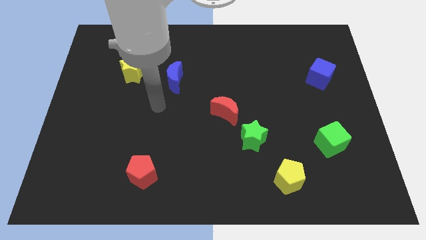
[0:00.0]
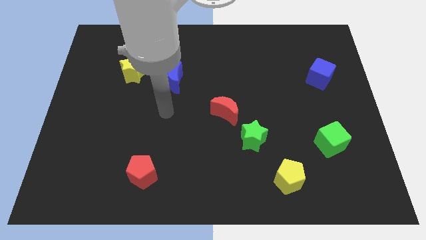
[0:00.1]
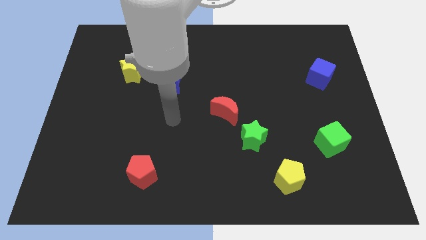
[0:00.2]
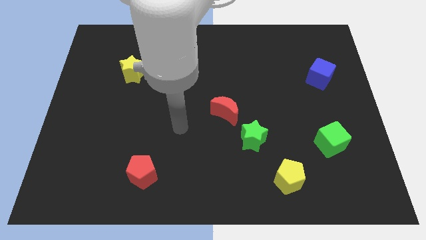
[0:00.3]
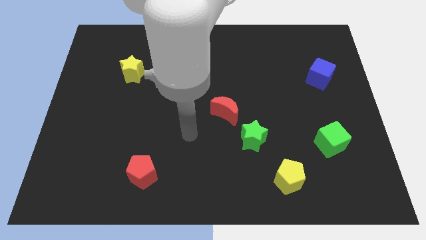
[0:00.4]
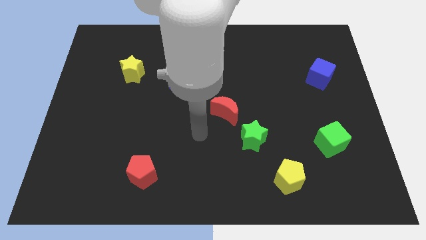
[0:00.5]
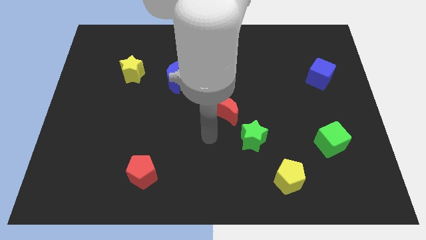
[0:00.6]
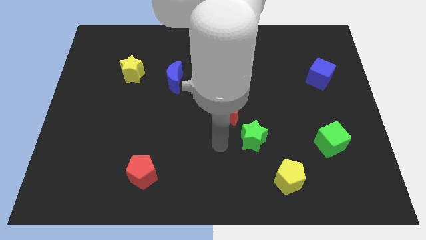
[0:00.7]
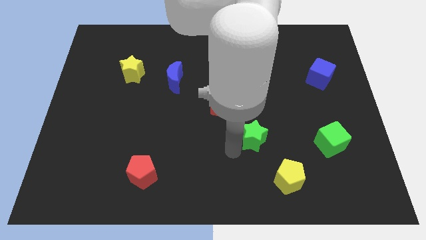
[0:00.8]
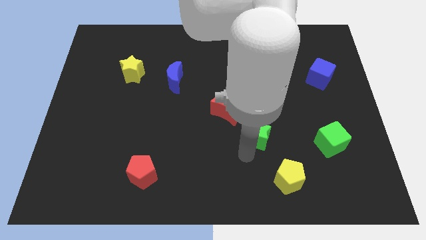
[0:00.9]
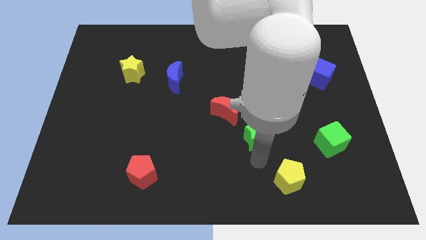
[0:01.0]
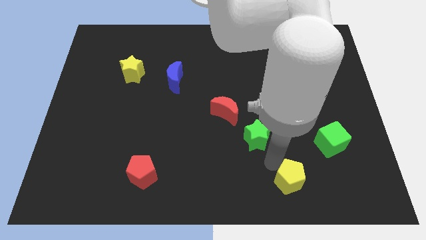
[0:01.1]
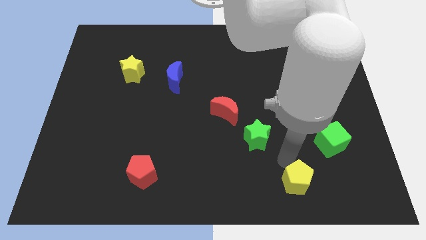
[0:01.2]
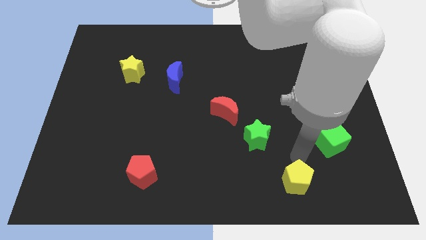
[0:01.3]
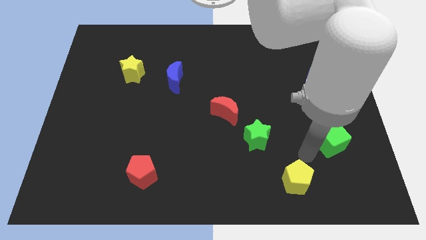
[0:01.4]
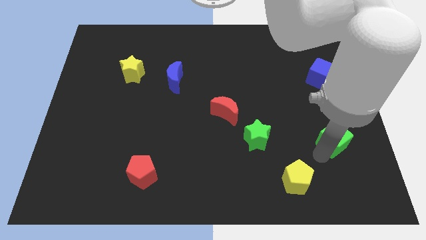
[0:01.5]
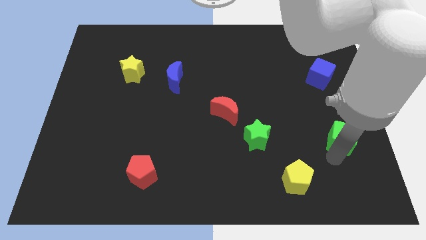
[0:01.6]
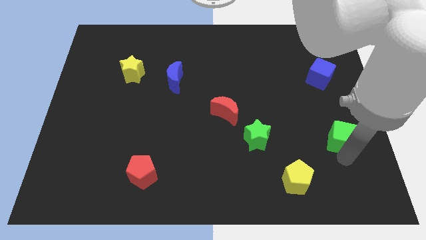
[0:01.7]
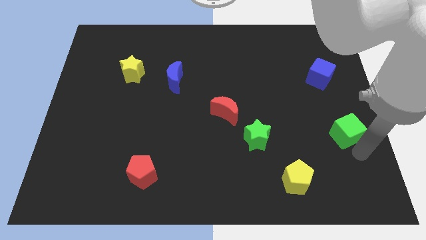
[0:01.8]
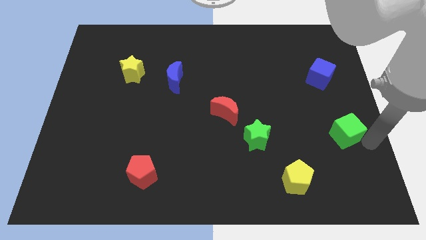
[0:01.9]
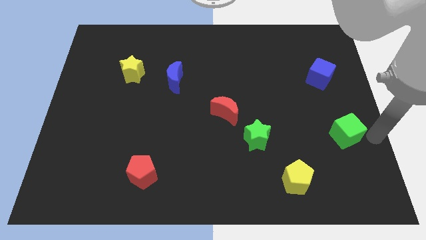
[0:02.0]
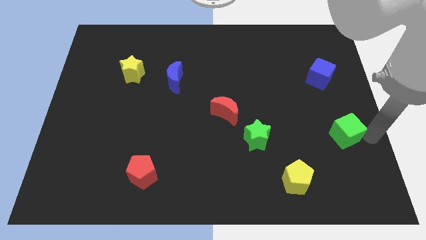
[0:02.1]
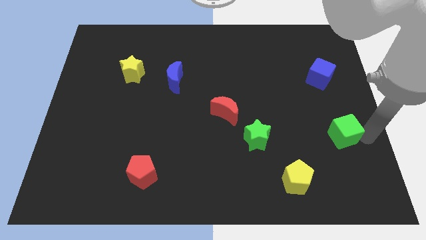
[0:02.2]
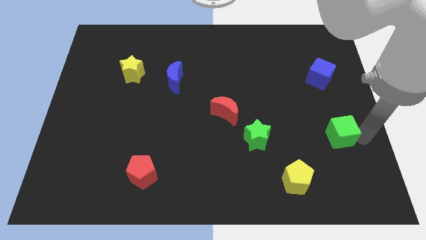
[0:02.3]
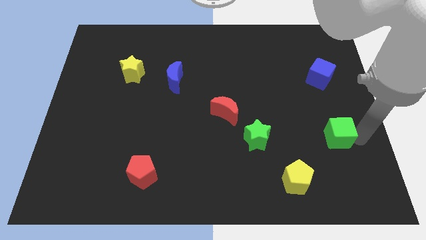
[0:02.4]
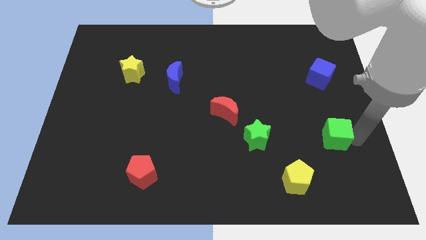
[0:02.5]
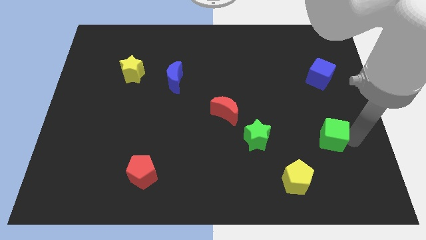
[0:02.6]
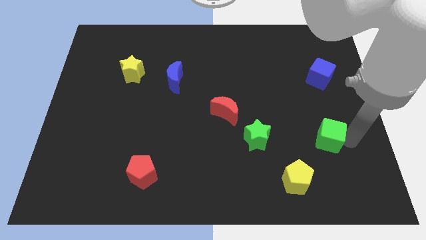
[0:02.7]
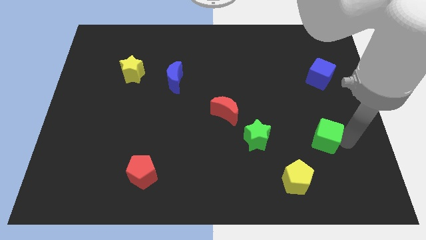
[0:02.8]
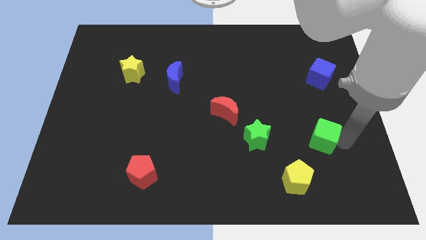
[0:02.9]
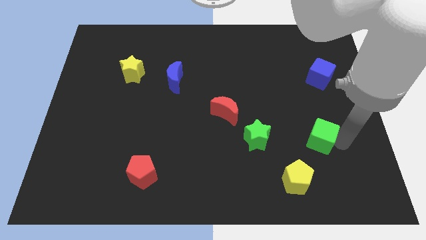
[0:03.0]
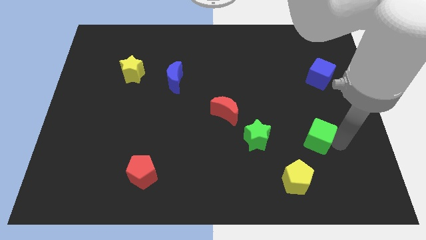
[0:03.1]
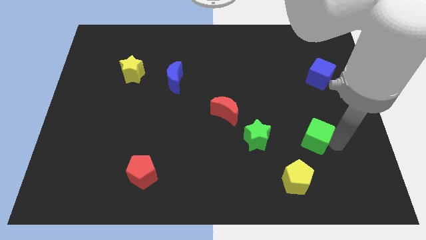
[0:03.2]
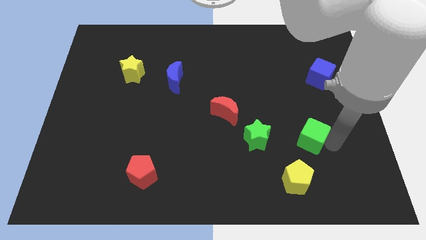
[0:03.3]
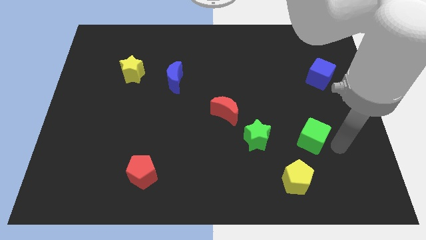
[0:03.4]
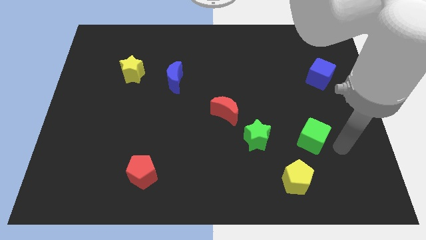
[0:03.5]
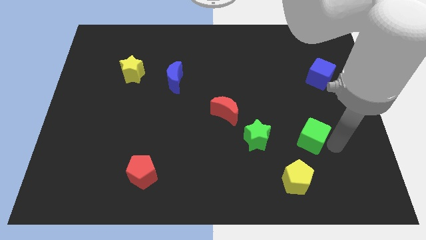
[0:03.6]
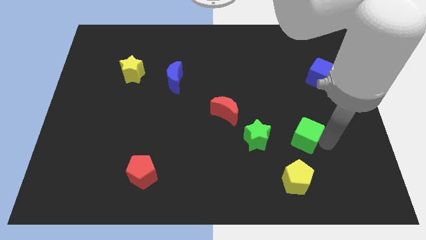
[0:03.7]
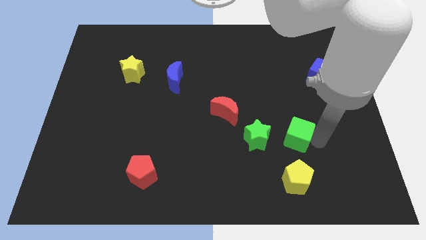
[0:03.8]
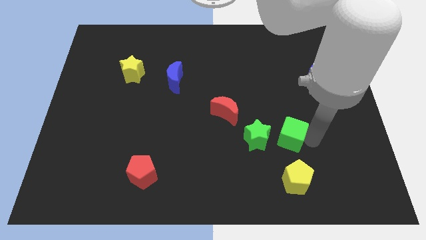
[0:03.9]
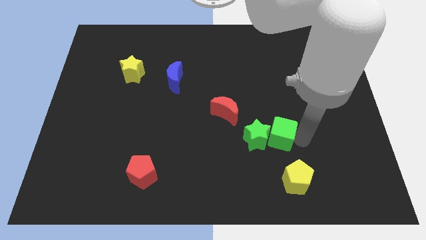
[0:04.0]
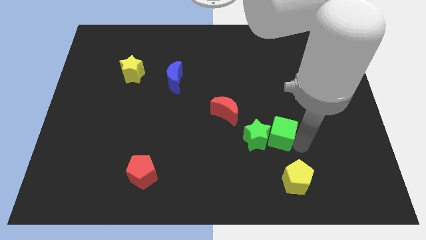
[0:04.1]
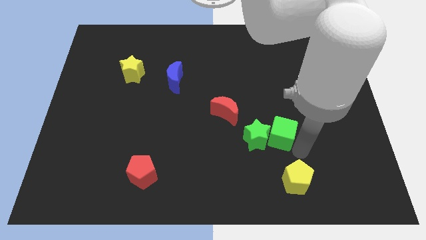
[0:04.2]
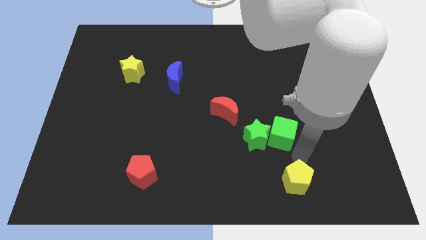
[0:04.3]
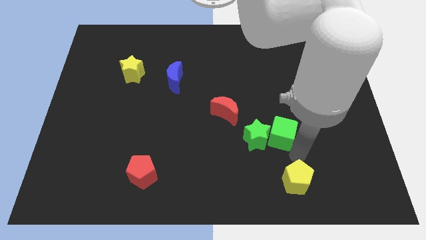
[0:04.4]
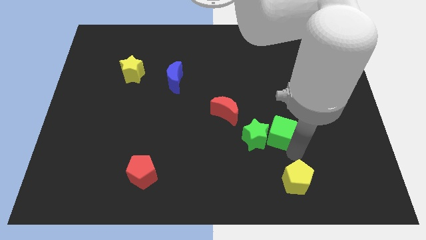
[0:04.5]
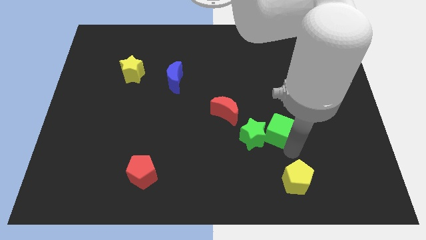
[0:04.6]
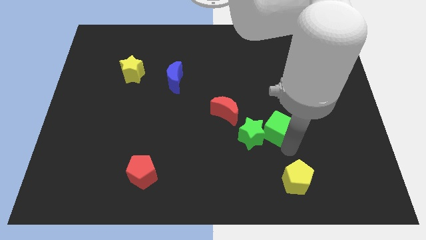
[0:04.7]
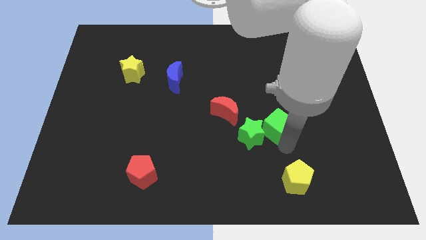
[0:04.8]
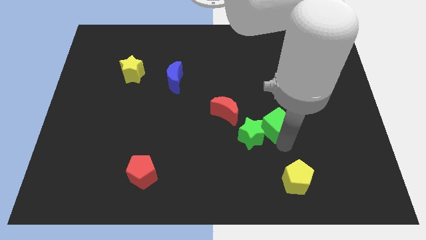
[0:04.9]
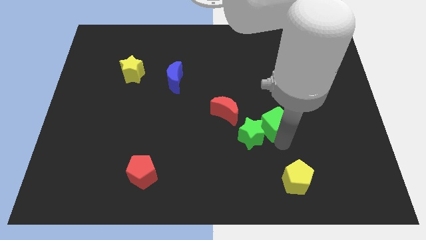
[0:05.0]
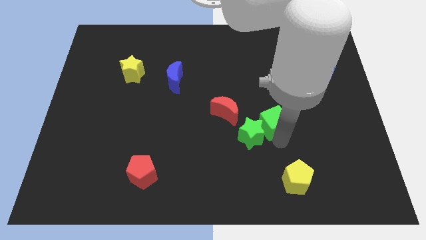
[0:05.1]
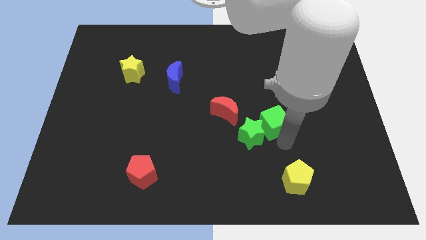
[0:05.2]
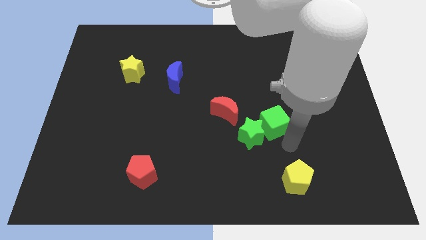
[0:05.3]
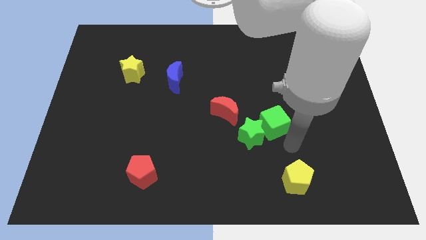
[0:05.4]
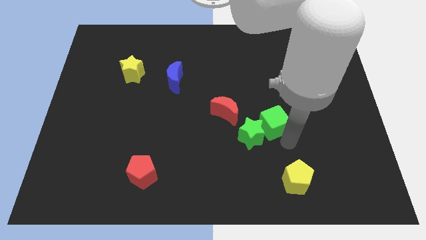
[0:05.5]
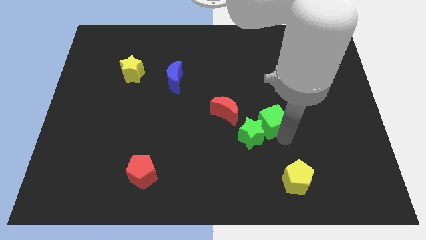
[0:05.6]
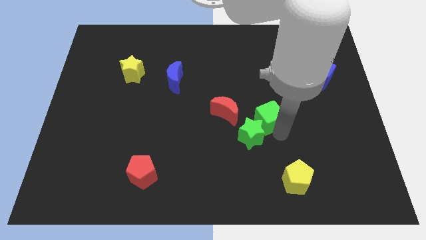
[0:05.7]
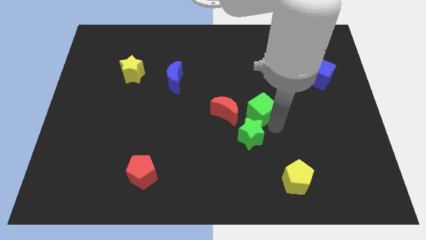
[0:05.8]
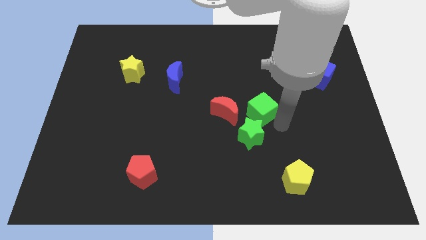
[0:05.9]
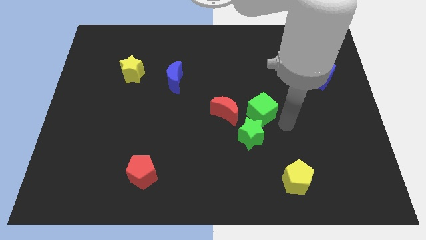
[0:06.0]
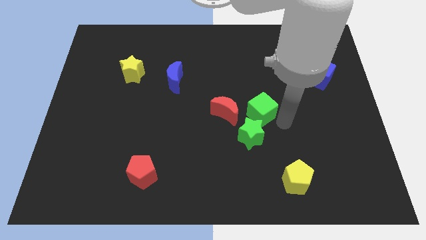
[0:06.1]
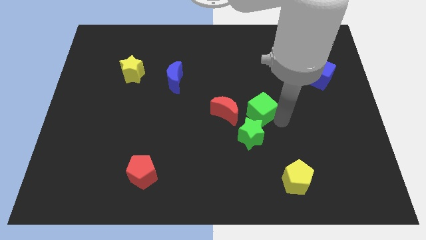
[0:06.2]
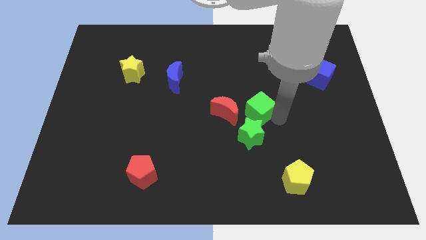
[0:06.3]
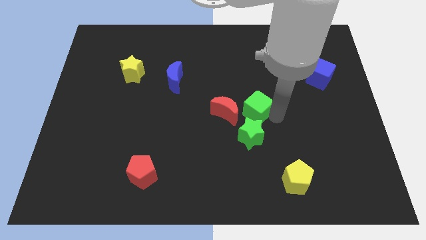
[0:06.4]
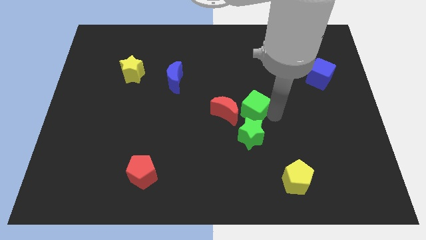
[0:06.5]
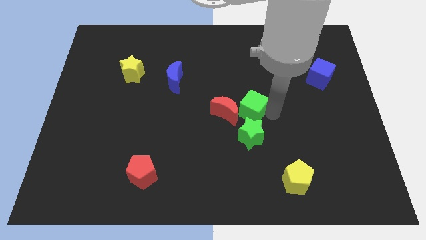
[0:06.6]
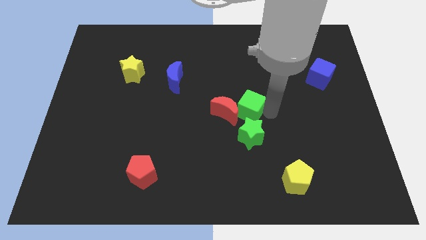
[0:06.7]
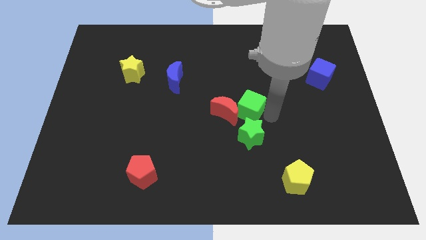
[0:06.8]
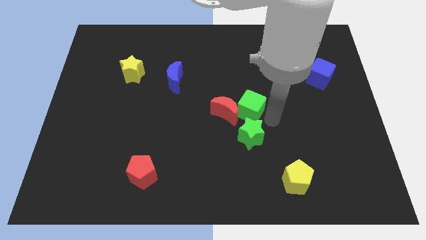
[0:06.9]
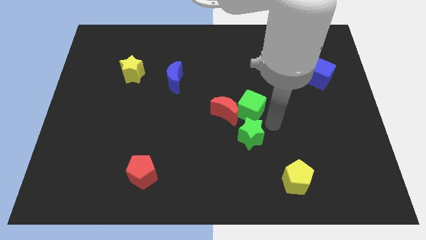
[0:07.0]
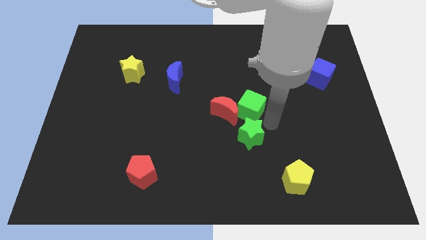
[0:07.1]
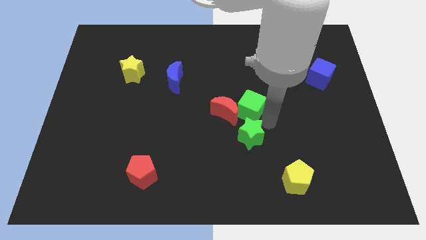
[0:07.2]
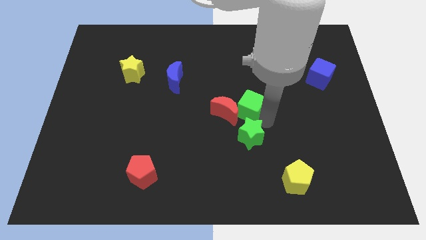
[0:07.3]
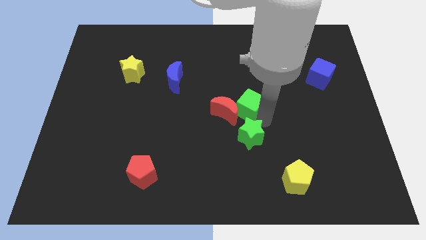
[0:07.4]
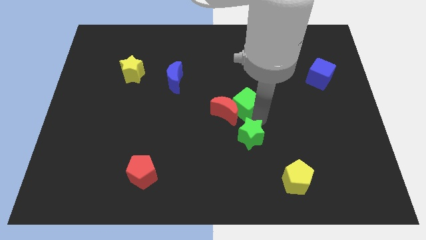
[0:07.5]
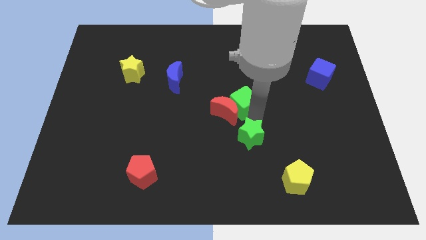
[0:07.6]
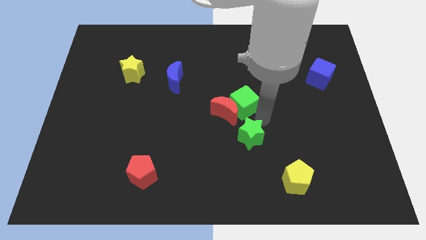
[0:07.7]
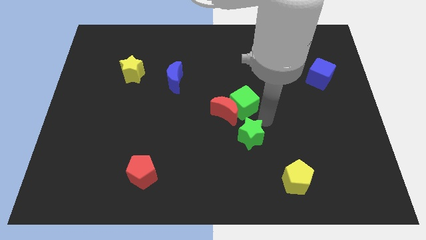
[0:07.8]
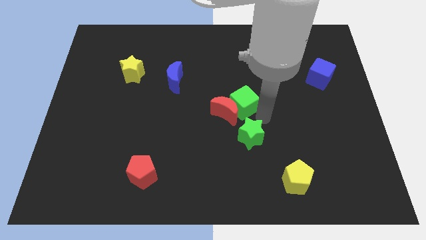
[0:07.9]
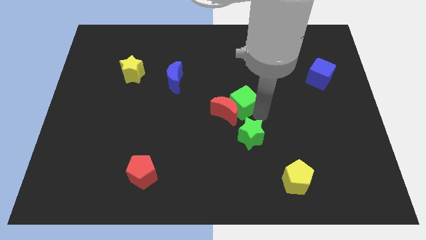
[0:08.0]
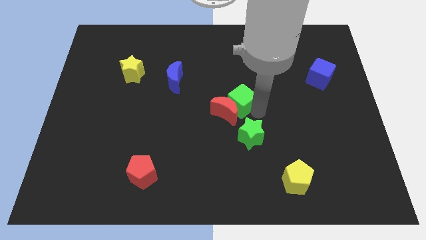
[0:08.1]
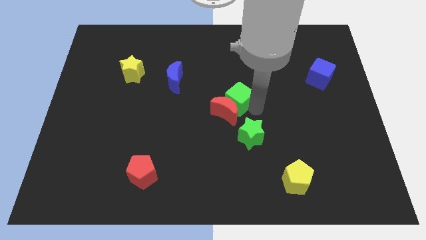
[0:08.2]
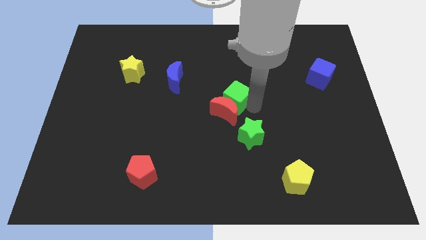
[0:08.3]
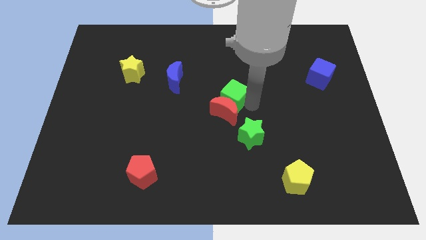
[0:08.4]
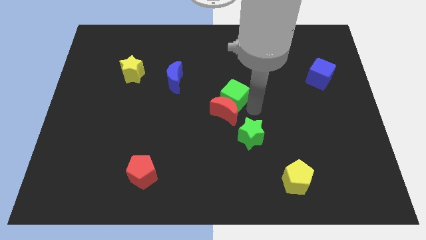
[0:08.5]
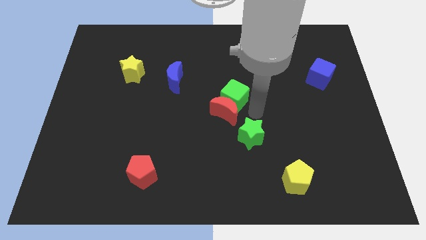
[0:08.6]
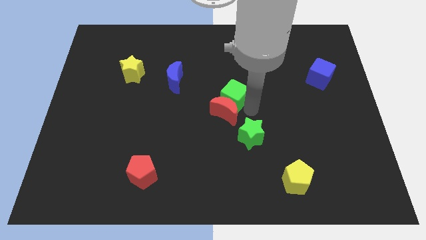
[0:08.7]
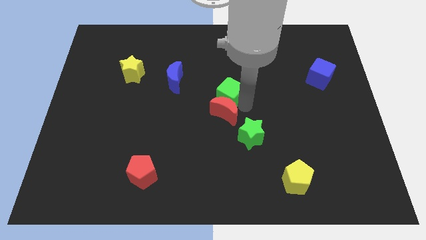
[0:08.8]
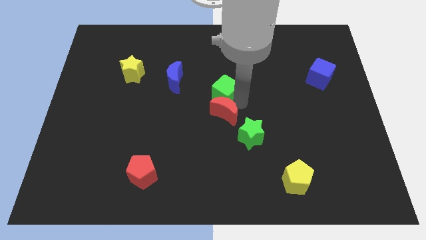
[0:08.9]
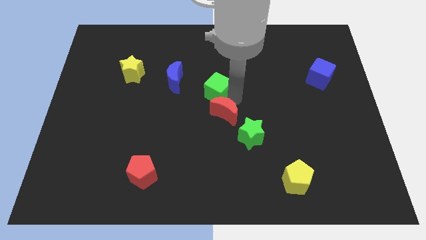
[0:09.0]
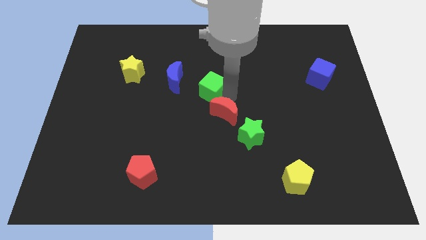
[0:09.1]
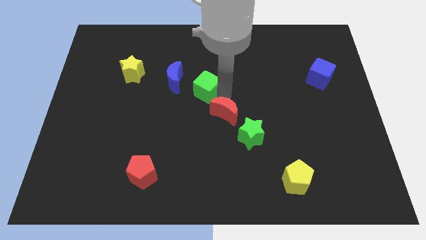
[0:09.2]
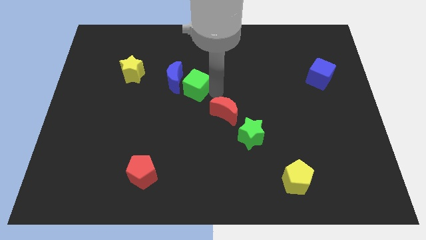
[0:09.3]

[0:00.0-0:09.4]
put the green cube close to the blue moon
